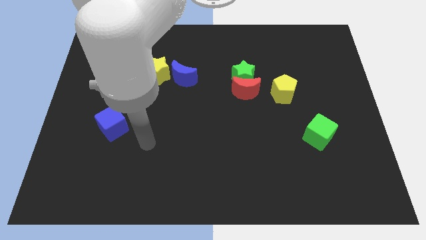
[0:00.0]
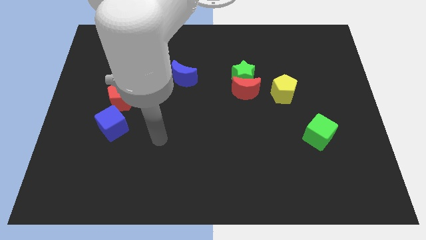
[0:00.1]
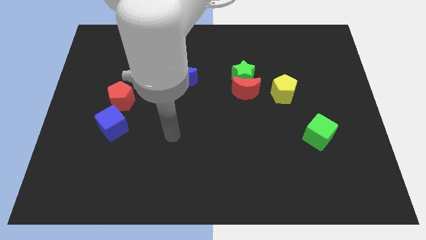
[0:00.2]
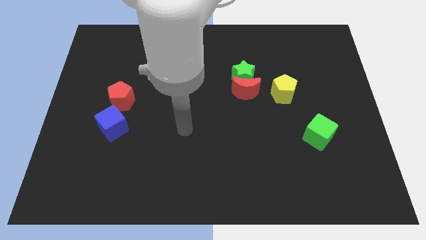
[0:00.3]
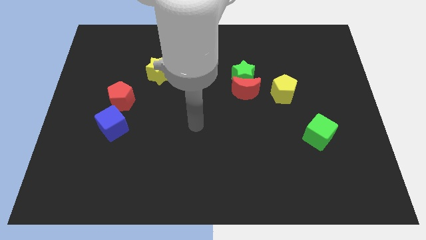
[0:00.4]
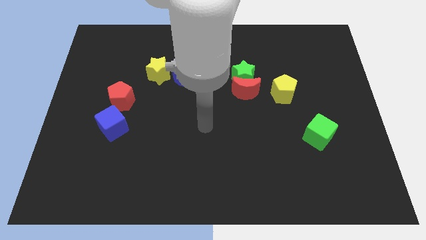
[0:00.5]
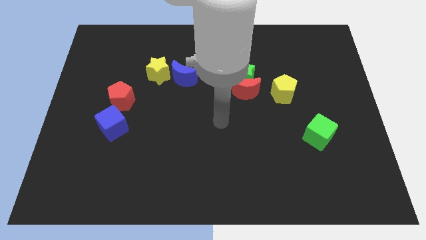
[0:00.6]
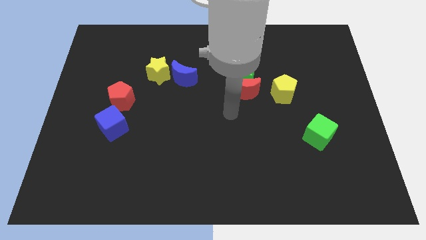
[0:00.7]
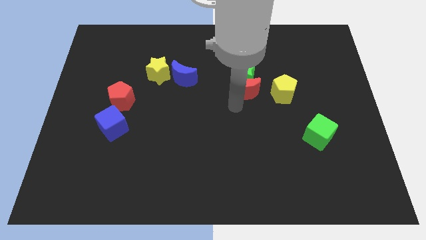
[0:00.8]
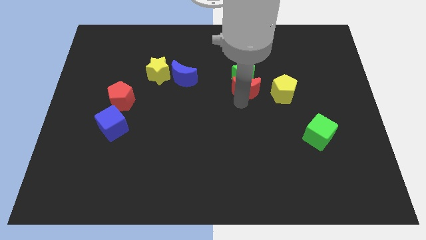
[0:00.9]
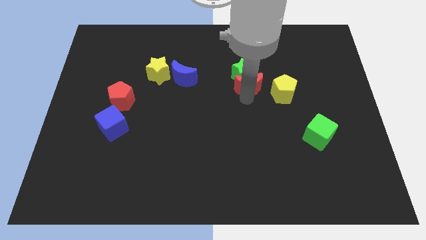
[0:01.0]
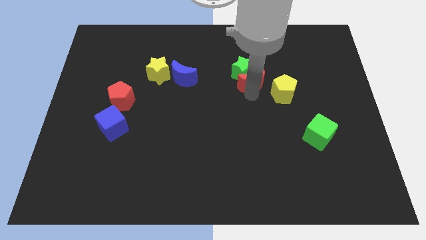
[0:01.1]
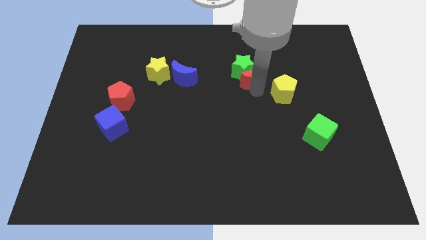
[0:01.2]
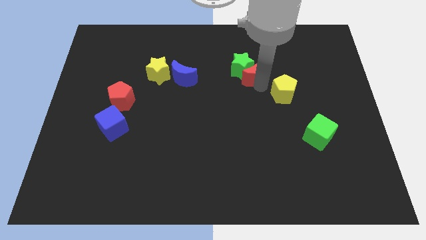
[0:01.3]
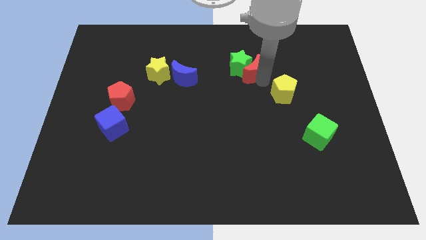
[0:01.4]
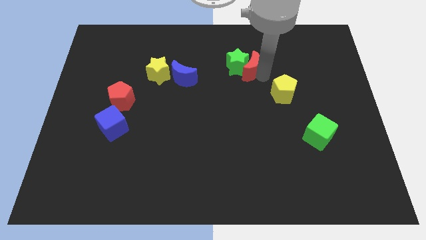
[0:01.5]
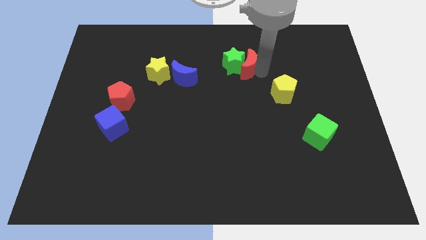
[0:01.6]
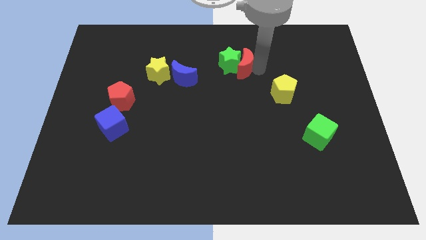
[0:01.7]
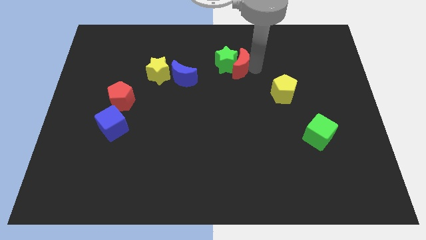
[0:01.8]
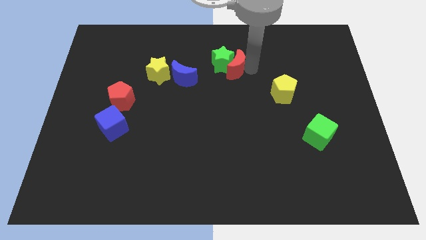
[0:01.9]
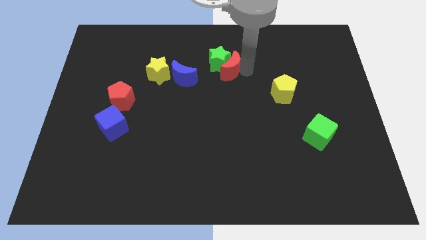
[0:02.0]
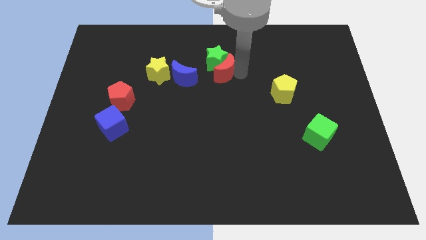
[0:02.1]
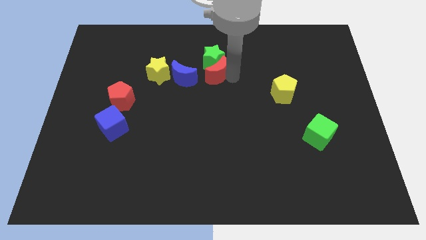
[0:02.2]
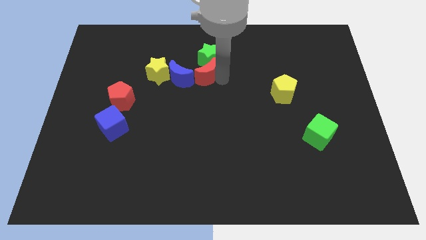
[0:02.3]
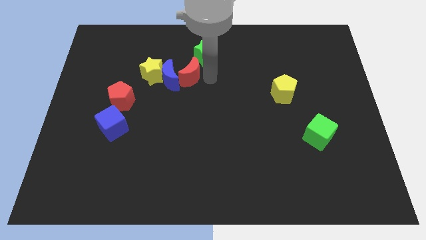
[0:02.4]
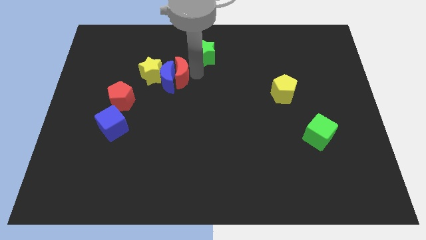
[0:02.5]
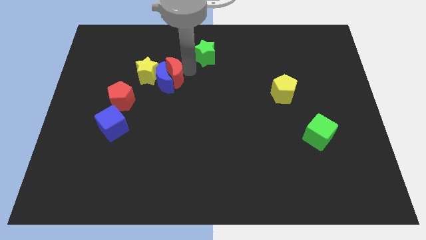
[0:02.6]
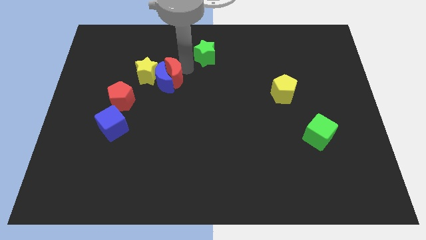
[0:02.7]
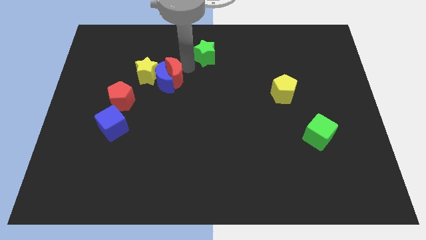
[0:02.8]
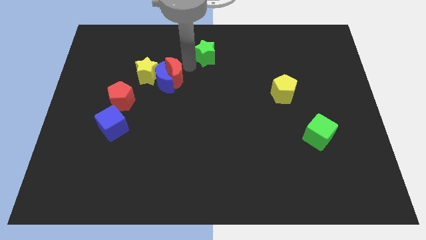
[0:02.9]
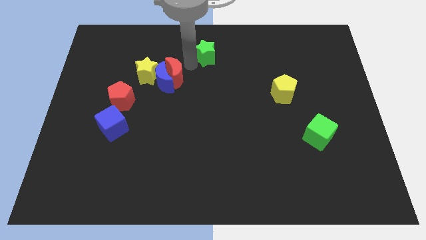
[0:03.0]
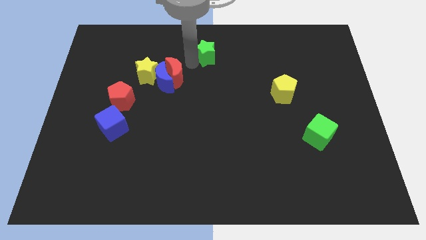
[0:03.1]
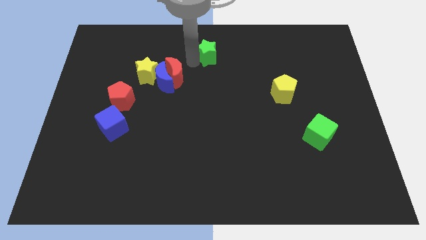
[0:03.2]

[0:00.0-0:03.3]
separate the green star from the red moon

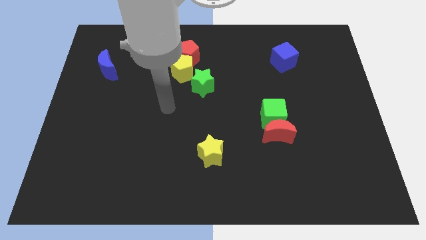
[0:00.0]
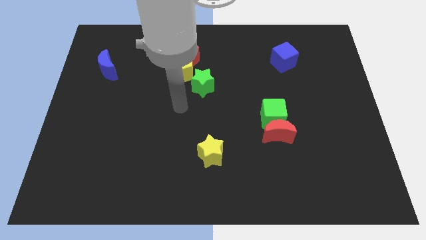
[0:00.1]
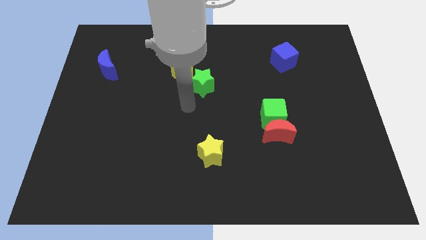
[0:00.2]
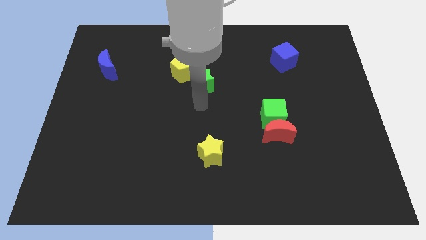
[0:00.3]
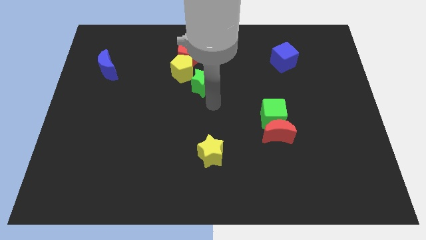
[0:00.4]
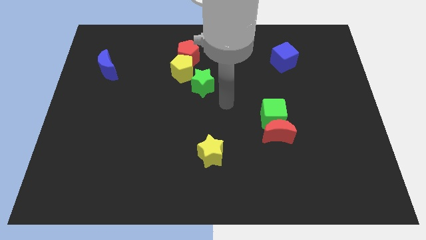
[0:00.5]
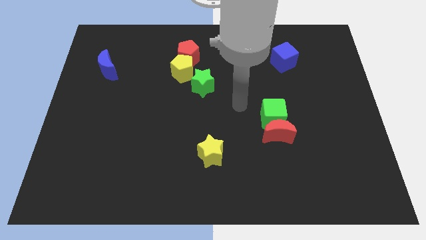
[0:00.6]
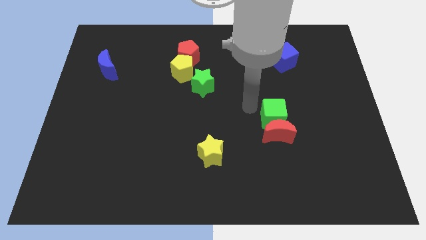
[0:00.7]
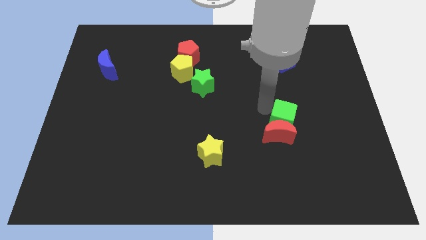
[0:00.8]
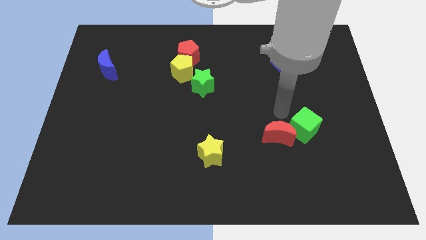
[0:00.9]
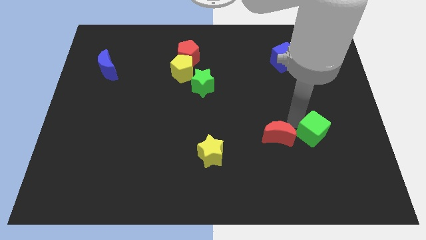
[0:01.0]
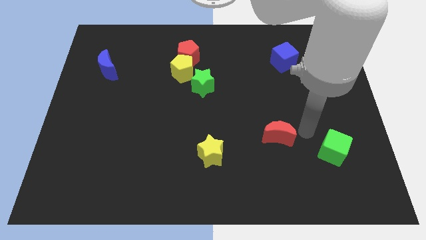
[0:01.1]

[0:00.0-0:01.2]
pull the red moon apart from the green cube

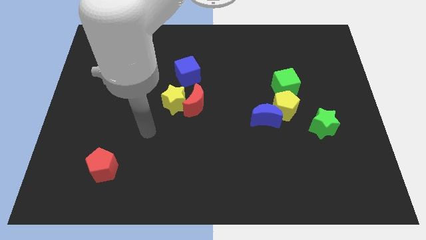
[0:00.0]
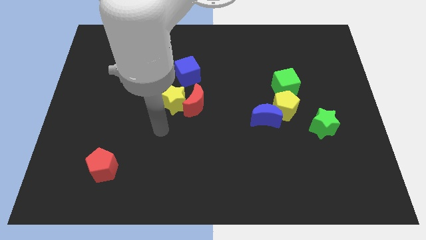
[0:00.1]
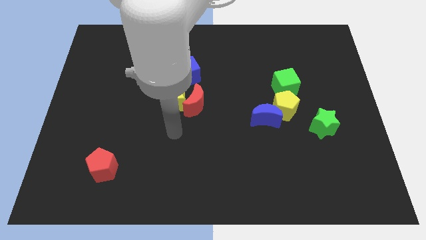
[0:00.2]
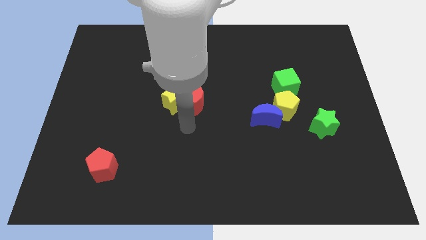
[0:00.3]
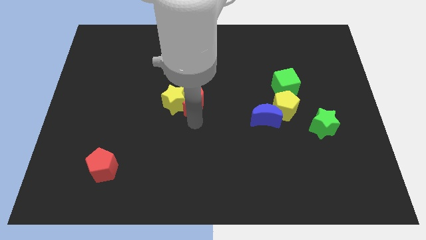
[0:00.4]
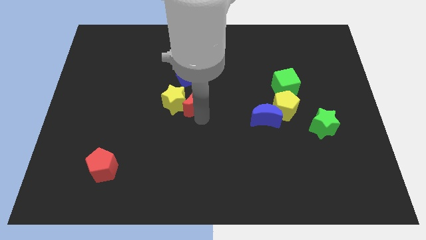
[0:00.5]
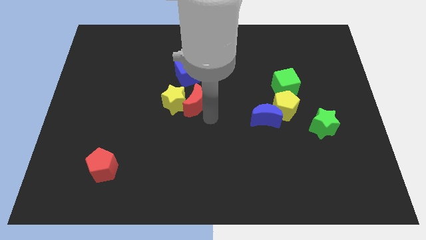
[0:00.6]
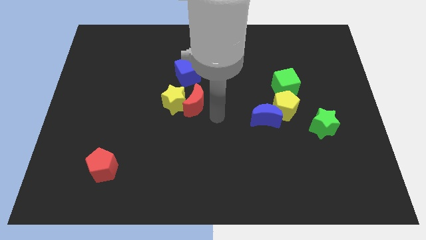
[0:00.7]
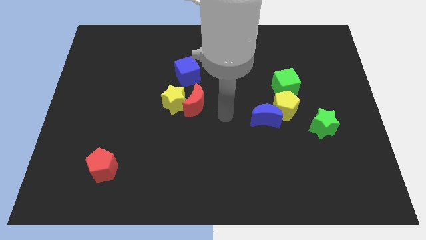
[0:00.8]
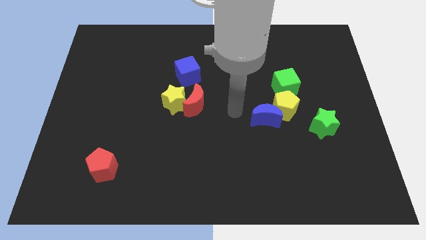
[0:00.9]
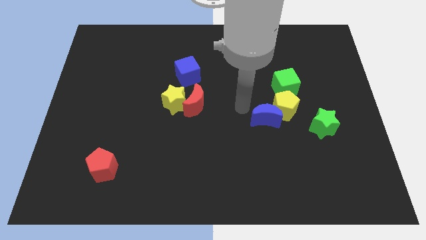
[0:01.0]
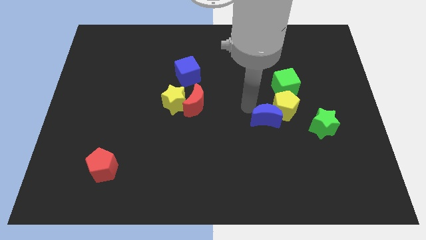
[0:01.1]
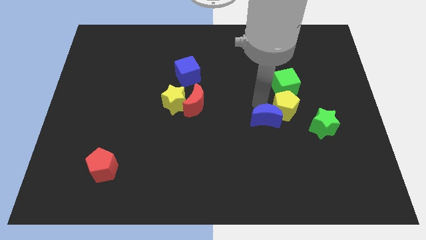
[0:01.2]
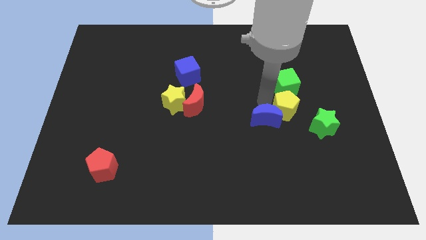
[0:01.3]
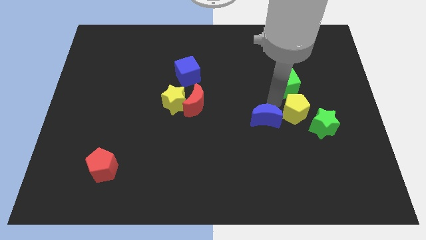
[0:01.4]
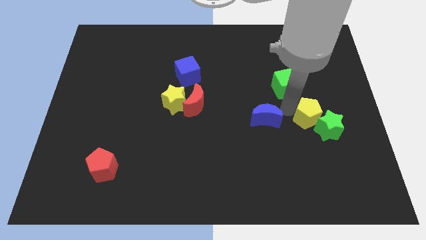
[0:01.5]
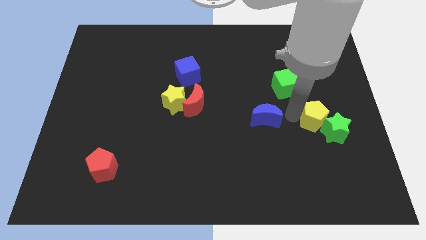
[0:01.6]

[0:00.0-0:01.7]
move the blue moon away from the yellow pentagon

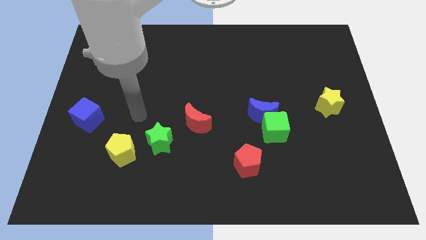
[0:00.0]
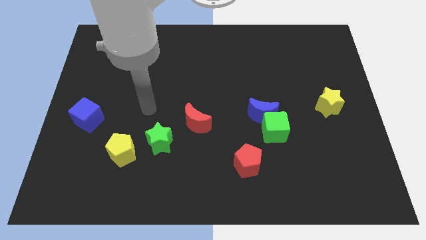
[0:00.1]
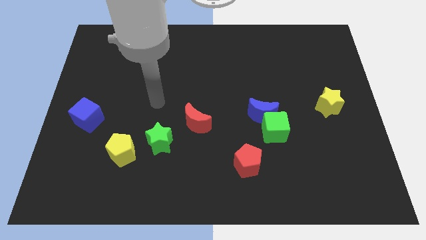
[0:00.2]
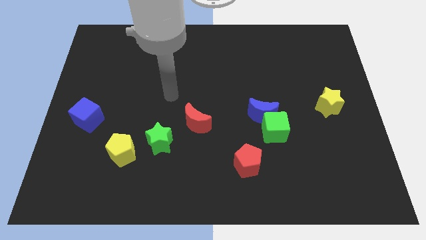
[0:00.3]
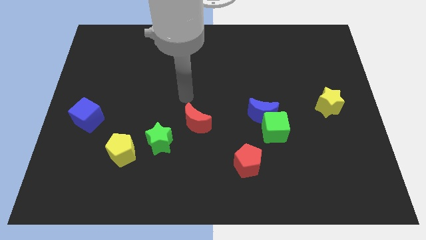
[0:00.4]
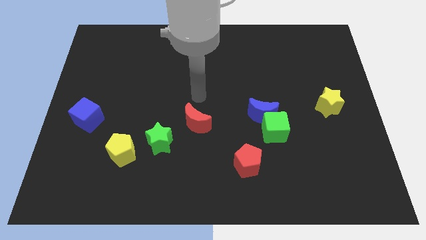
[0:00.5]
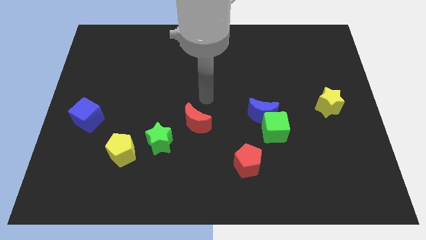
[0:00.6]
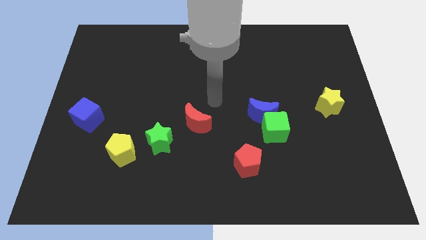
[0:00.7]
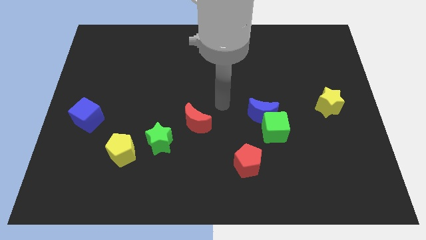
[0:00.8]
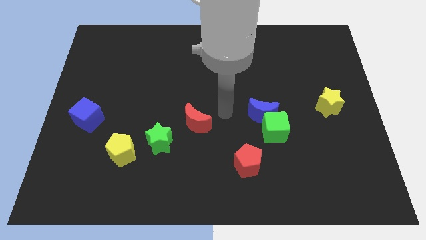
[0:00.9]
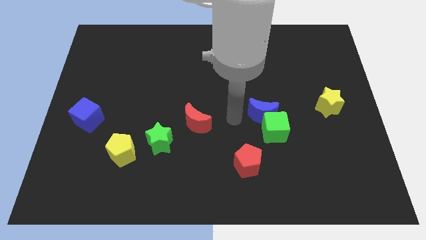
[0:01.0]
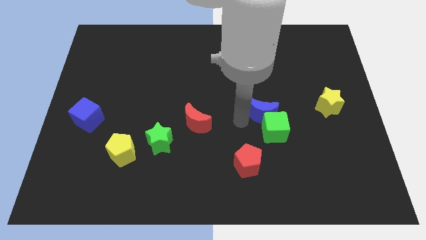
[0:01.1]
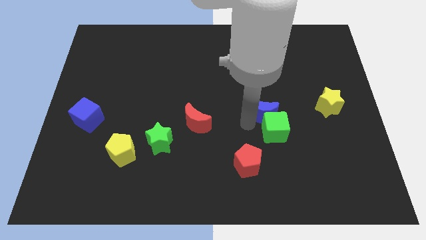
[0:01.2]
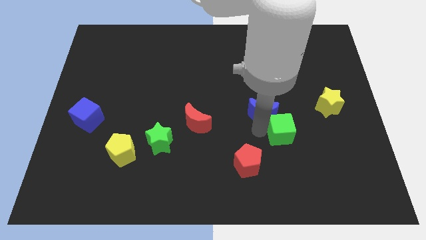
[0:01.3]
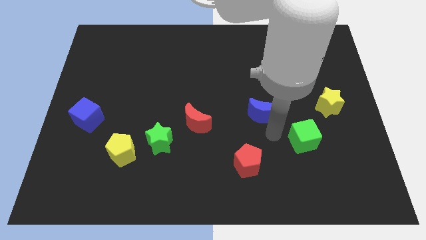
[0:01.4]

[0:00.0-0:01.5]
pull the blue moon apart from the green cube

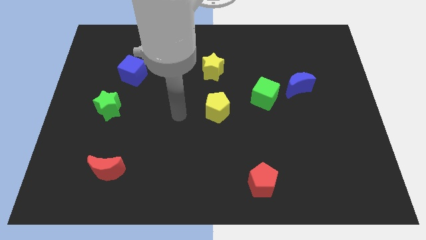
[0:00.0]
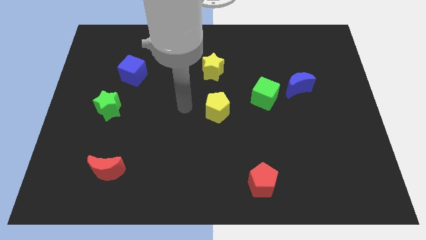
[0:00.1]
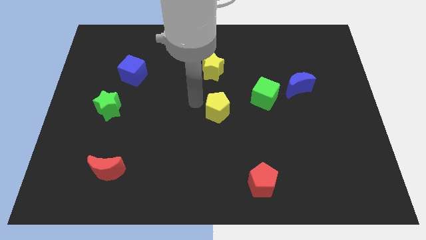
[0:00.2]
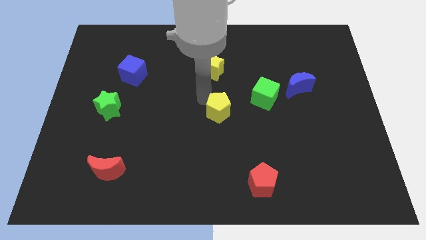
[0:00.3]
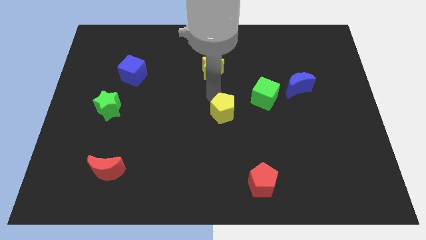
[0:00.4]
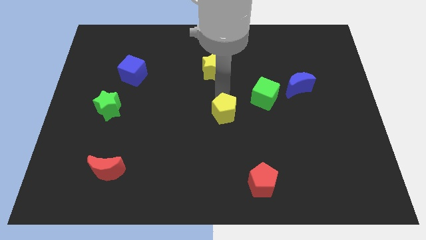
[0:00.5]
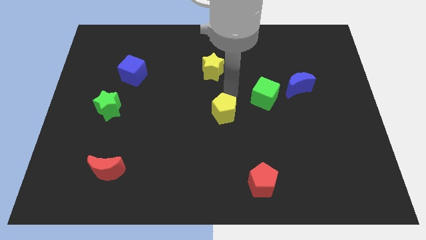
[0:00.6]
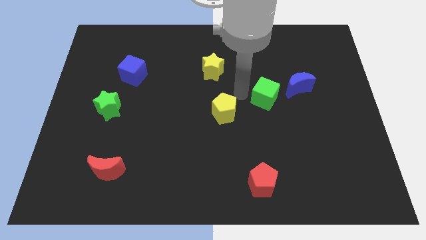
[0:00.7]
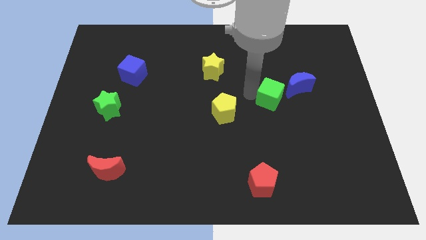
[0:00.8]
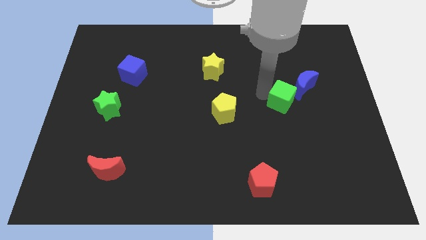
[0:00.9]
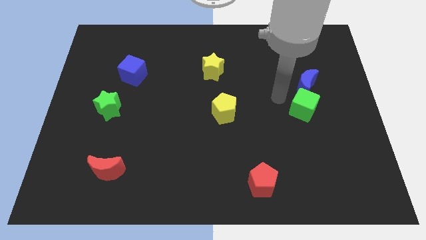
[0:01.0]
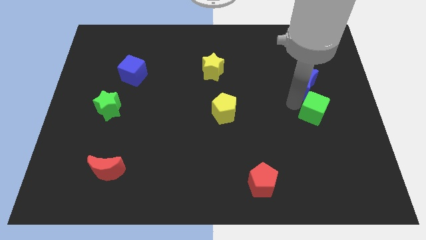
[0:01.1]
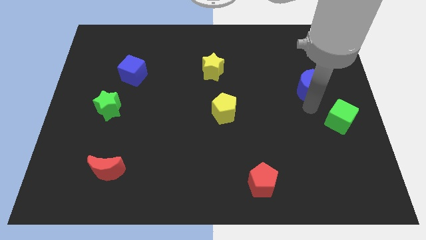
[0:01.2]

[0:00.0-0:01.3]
separate the blue moon from the green cube

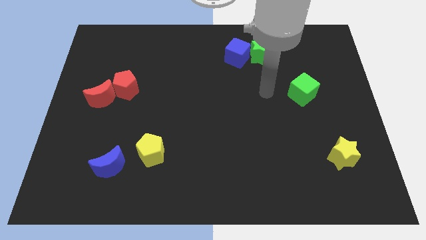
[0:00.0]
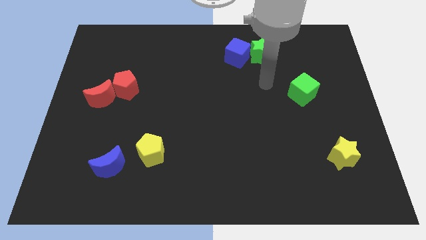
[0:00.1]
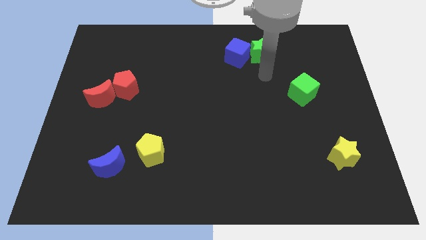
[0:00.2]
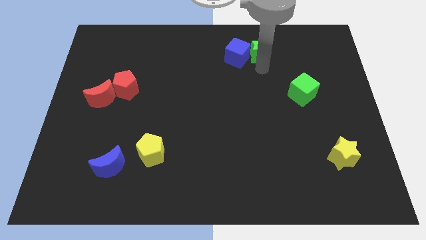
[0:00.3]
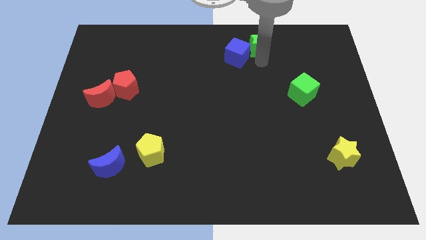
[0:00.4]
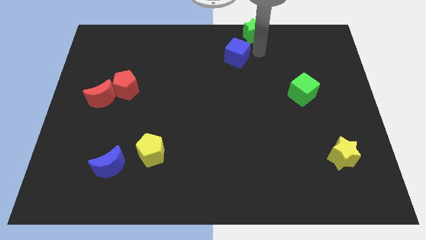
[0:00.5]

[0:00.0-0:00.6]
pull the blue cube apart from the green star
